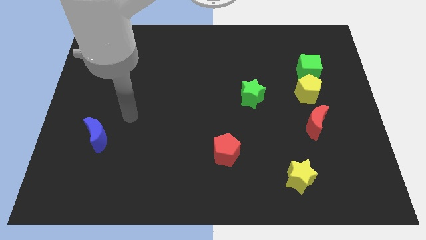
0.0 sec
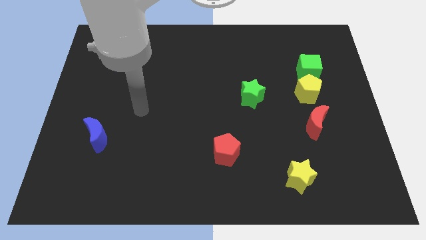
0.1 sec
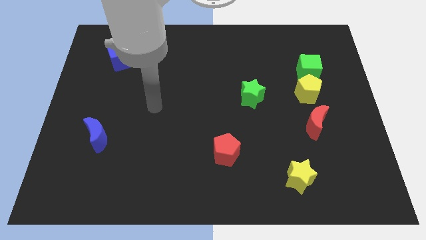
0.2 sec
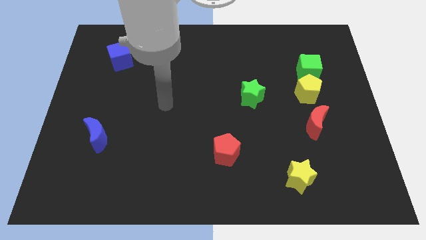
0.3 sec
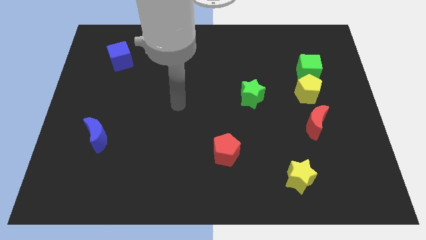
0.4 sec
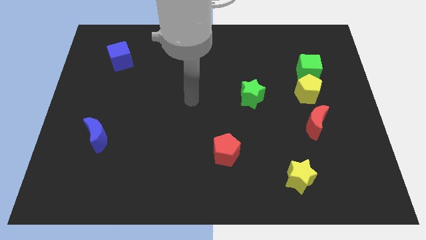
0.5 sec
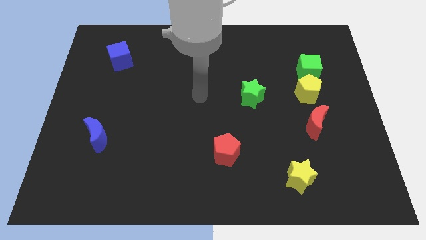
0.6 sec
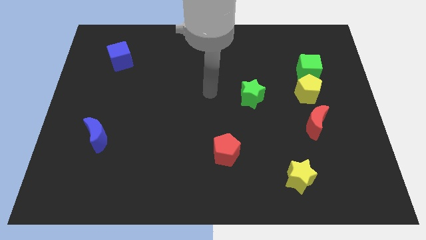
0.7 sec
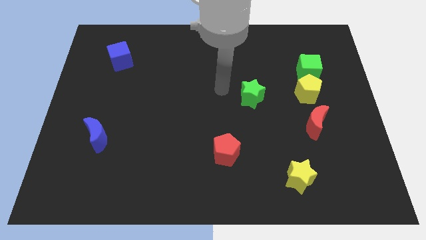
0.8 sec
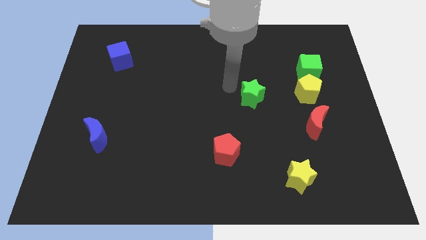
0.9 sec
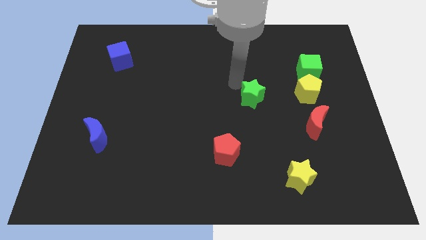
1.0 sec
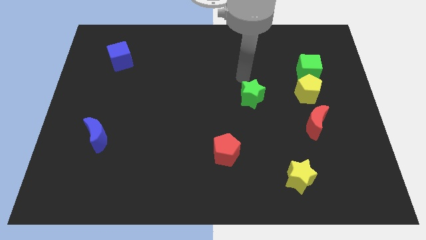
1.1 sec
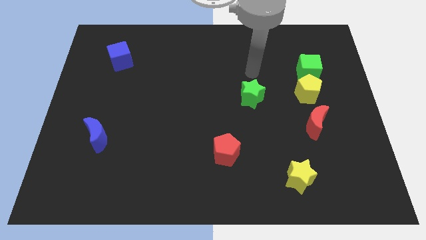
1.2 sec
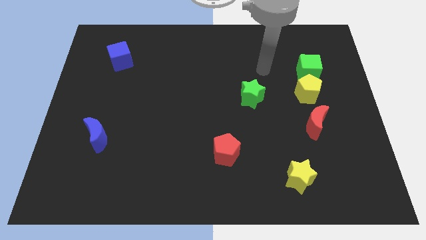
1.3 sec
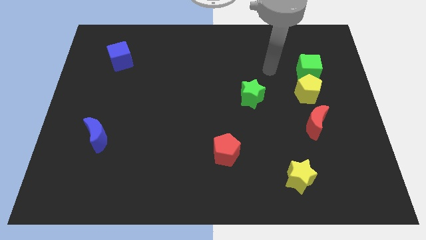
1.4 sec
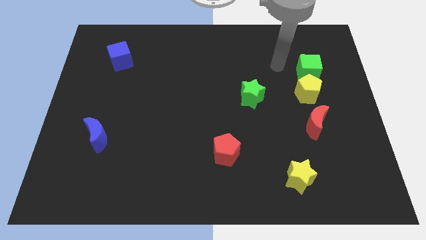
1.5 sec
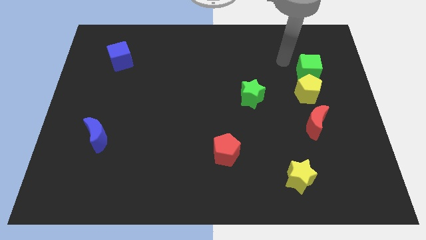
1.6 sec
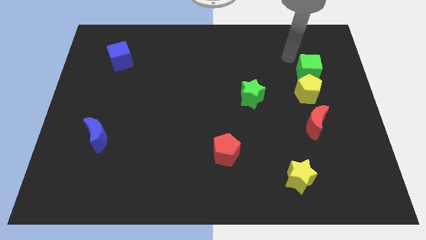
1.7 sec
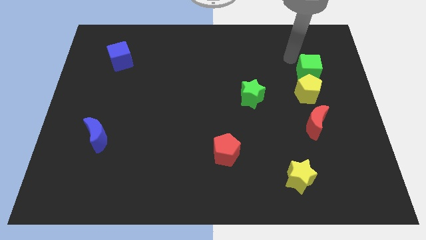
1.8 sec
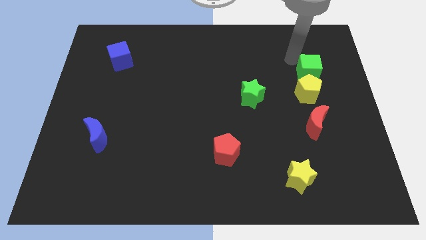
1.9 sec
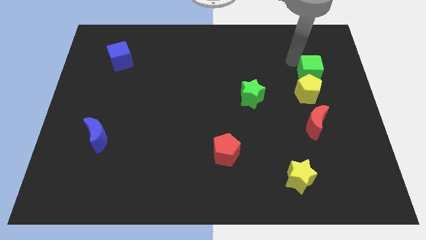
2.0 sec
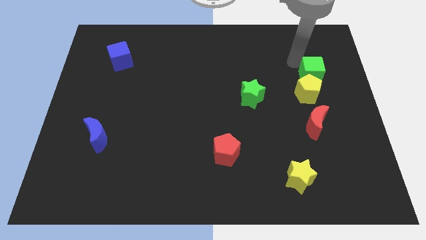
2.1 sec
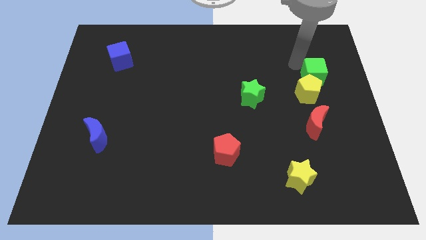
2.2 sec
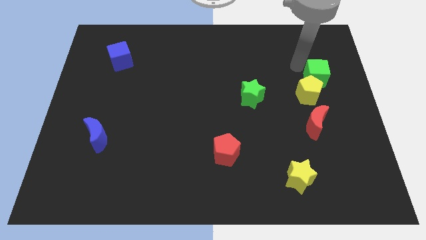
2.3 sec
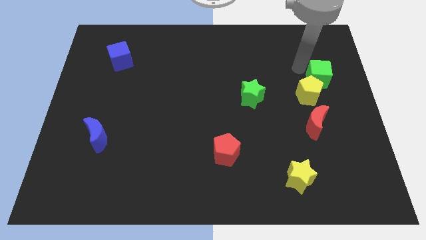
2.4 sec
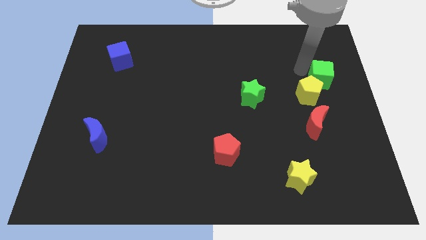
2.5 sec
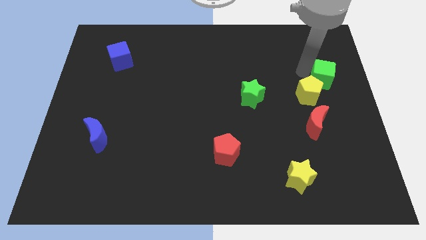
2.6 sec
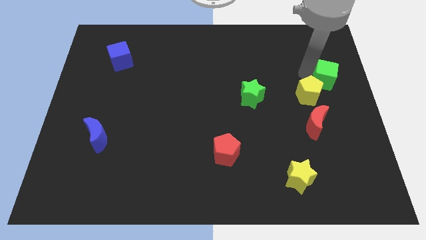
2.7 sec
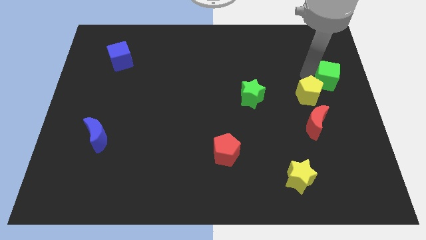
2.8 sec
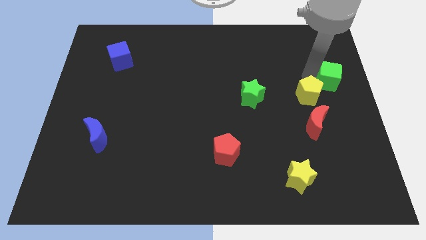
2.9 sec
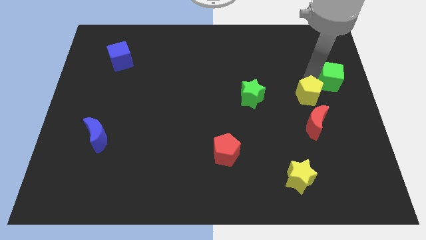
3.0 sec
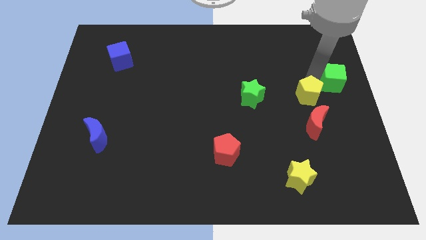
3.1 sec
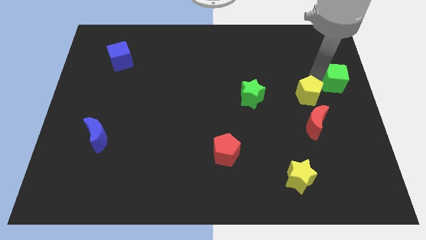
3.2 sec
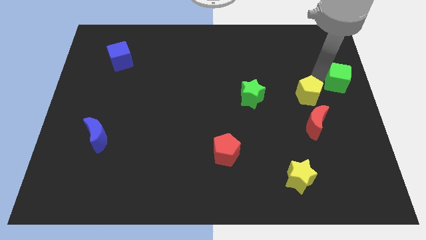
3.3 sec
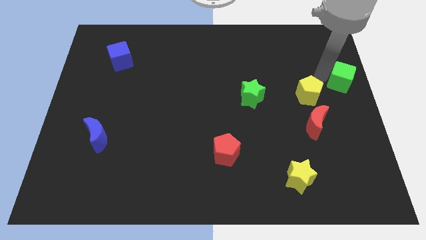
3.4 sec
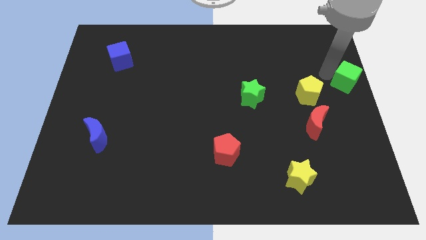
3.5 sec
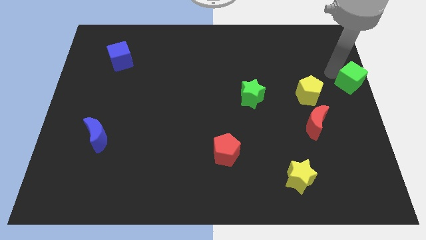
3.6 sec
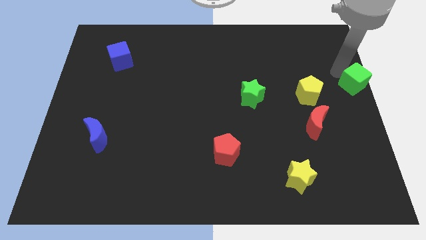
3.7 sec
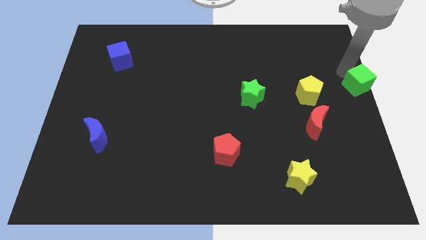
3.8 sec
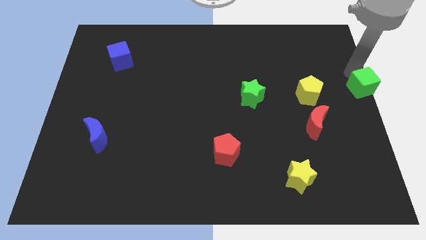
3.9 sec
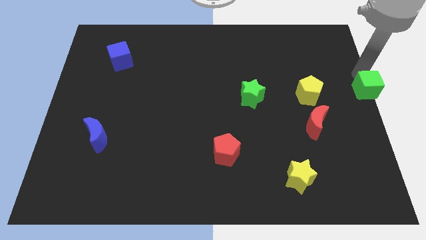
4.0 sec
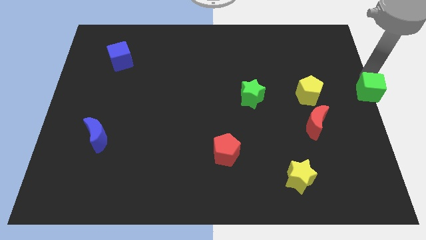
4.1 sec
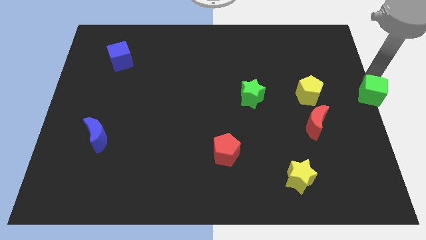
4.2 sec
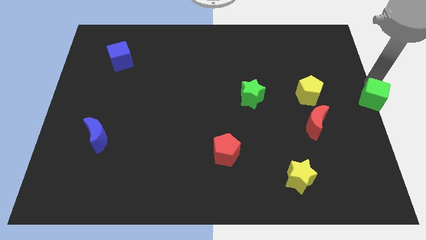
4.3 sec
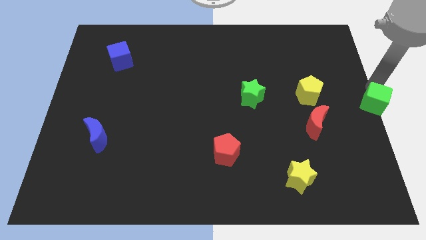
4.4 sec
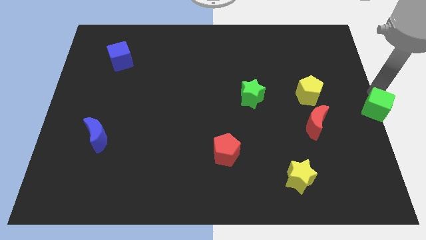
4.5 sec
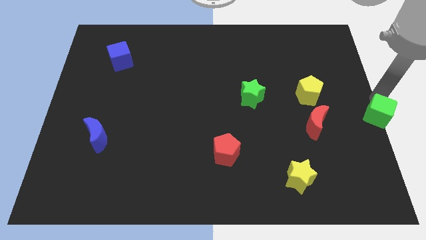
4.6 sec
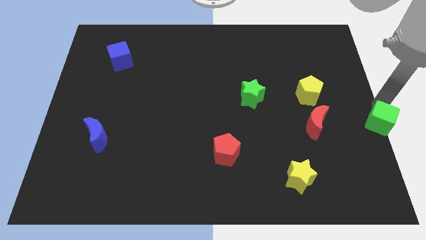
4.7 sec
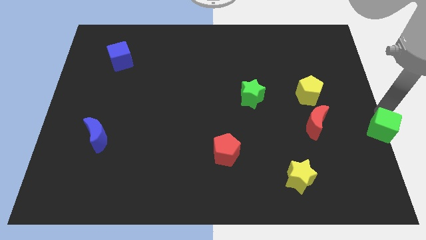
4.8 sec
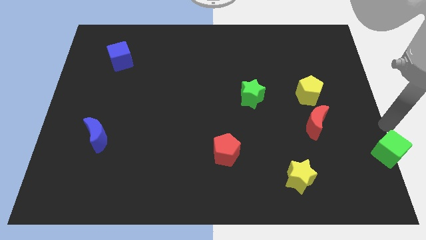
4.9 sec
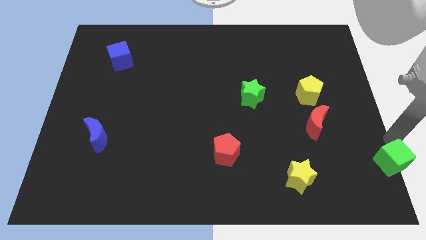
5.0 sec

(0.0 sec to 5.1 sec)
put the green cube to the lower right corner

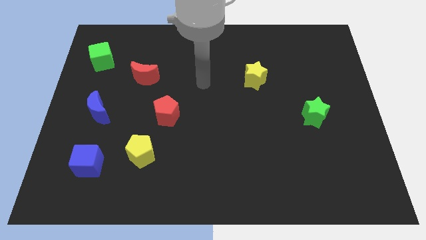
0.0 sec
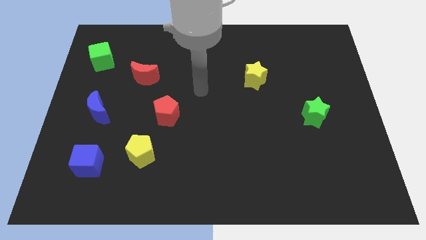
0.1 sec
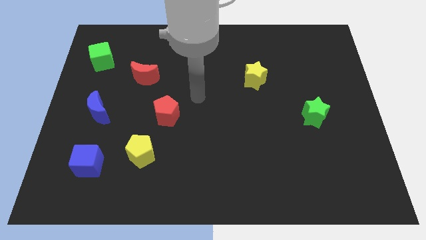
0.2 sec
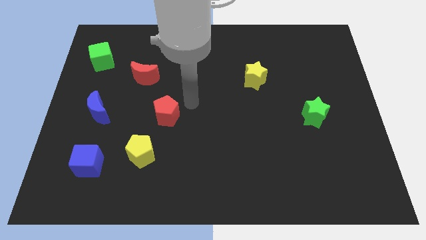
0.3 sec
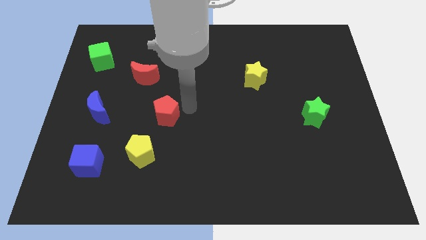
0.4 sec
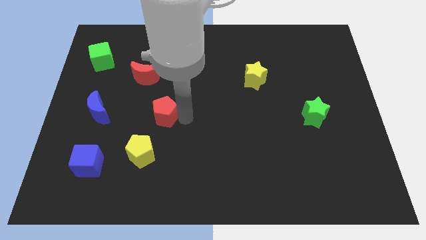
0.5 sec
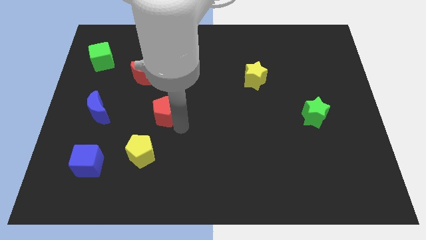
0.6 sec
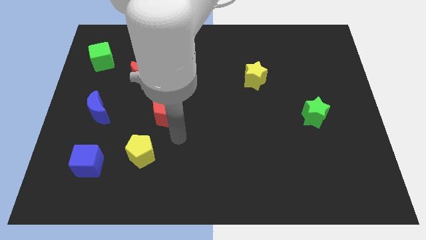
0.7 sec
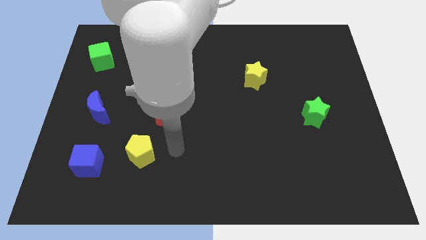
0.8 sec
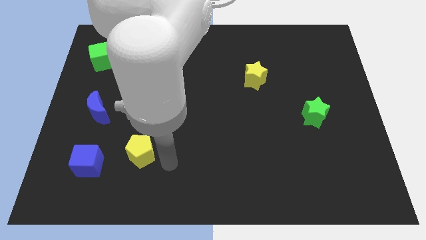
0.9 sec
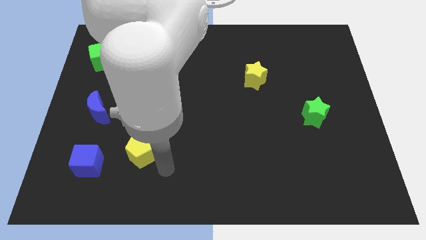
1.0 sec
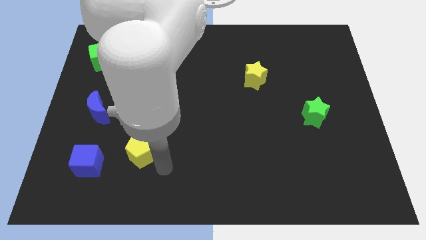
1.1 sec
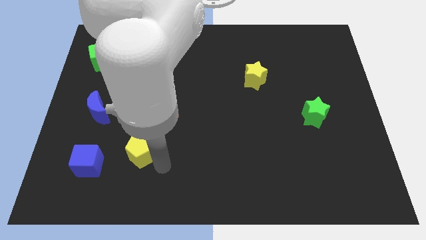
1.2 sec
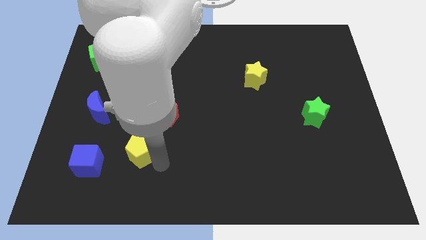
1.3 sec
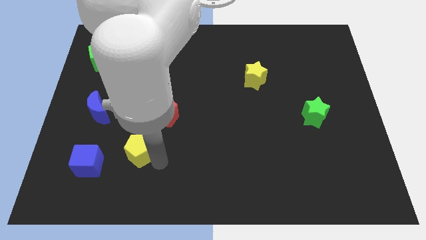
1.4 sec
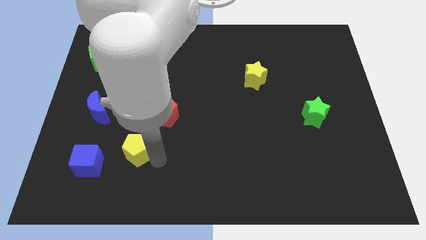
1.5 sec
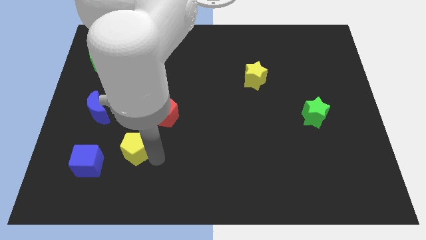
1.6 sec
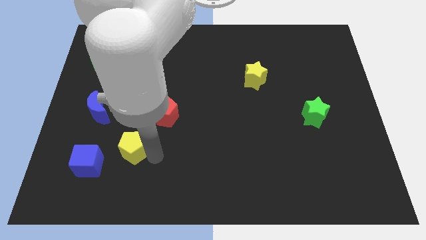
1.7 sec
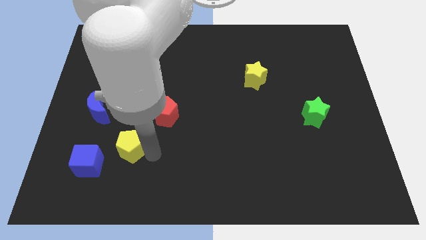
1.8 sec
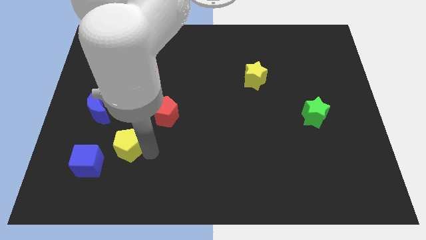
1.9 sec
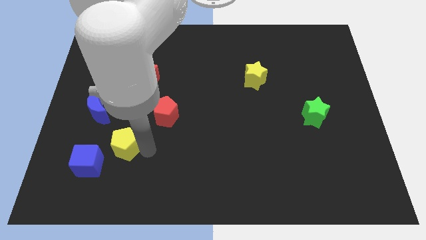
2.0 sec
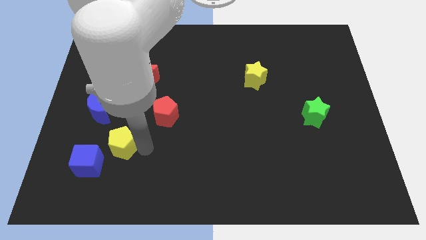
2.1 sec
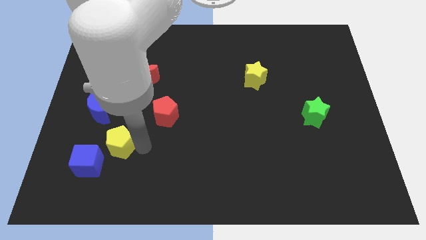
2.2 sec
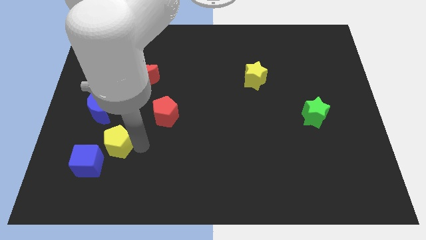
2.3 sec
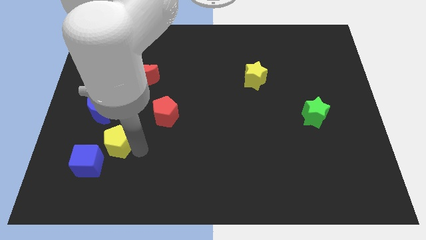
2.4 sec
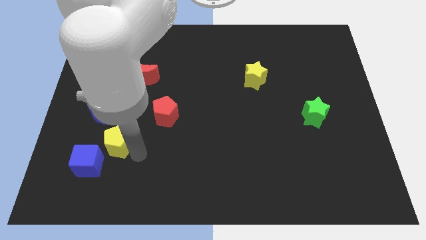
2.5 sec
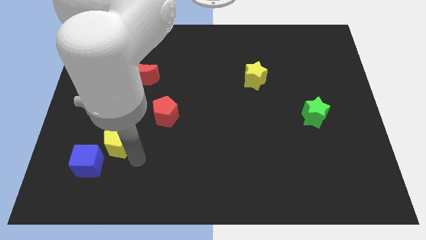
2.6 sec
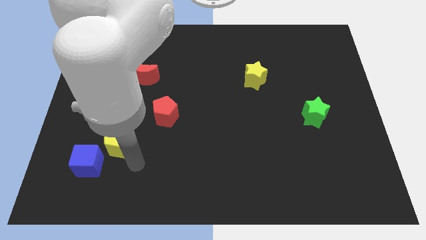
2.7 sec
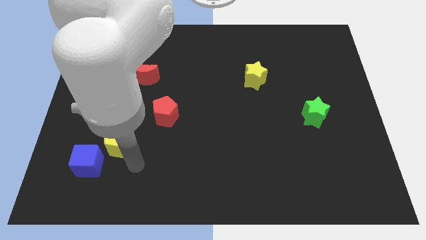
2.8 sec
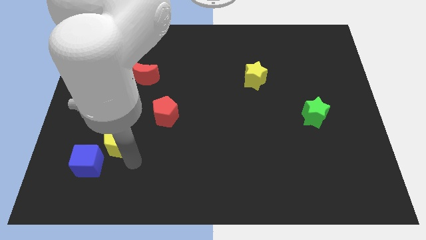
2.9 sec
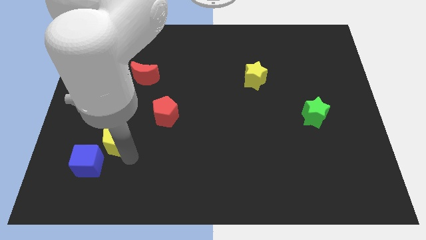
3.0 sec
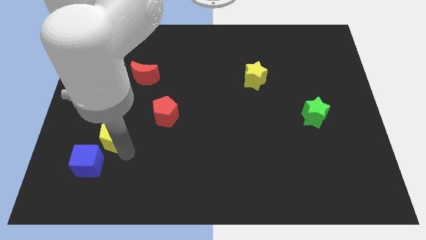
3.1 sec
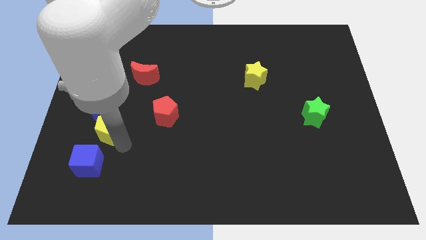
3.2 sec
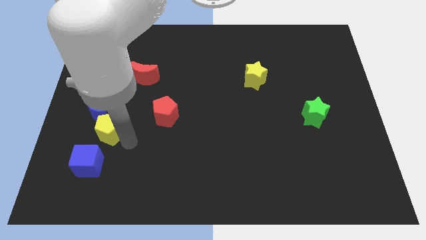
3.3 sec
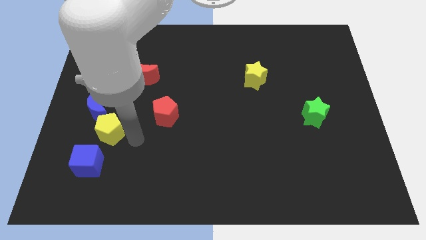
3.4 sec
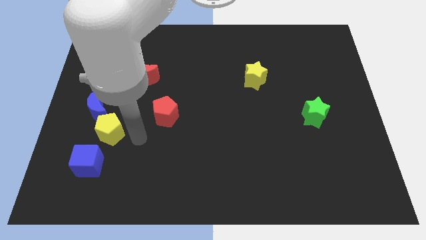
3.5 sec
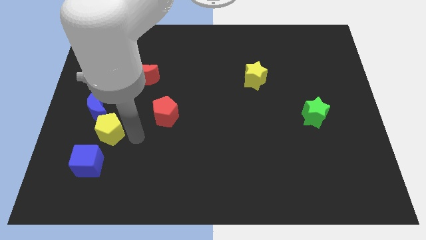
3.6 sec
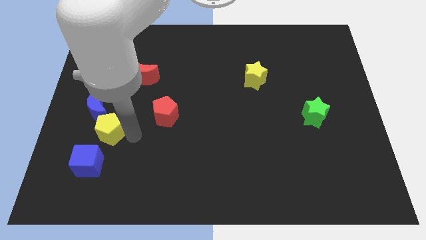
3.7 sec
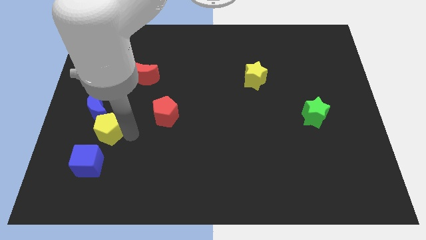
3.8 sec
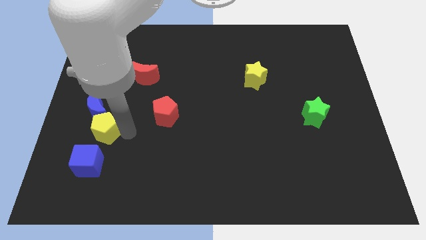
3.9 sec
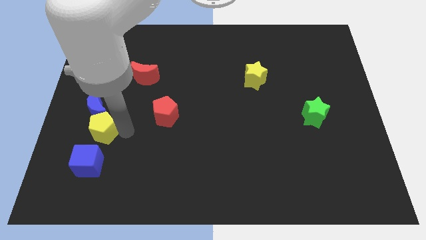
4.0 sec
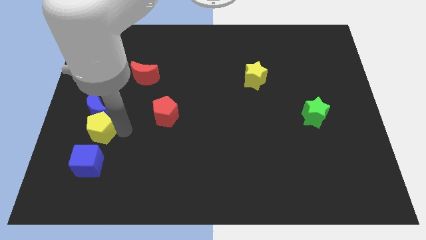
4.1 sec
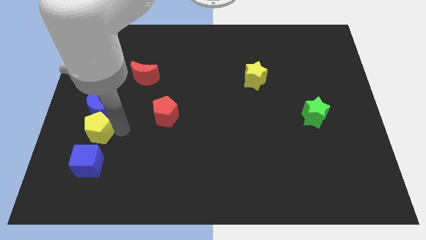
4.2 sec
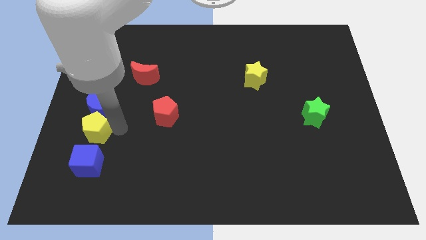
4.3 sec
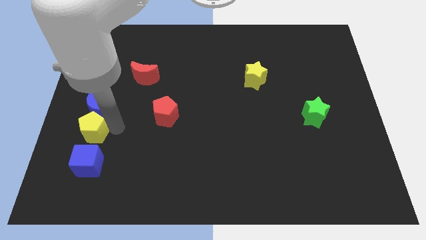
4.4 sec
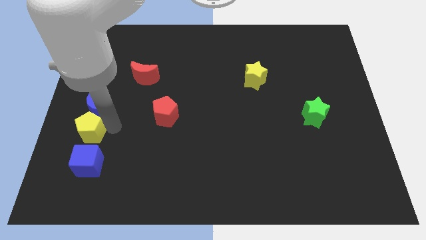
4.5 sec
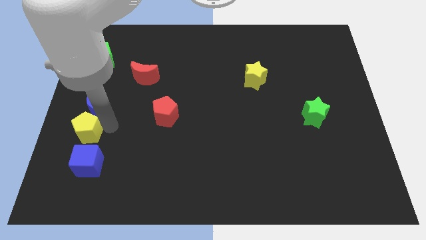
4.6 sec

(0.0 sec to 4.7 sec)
put the yellow pentagon to the left side of the board
